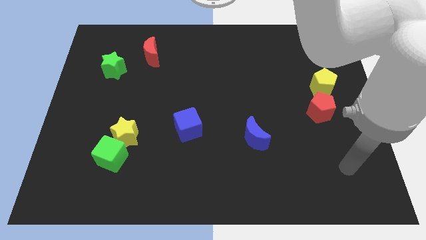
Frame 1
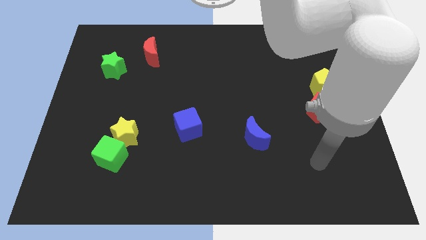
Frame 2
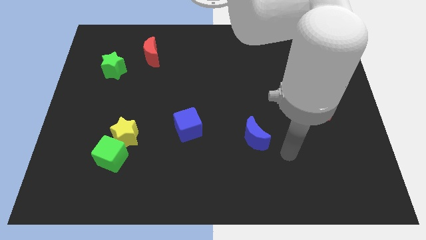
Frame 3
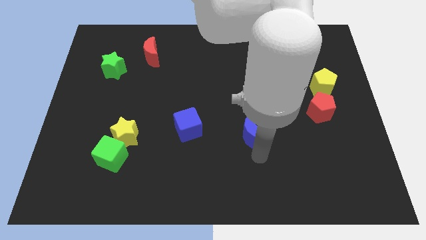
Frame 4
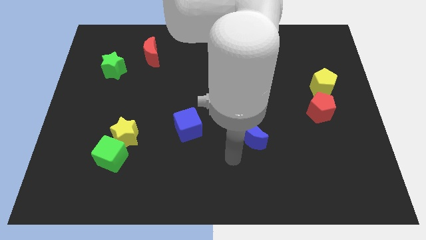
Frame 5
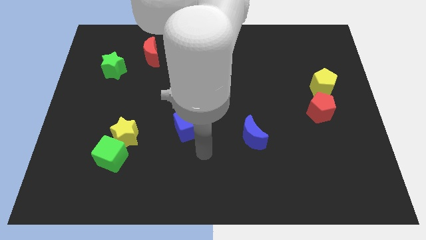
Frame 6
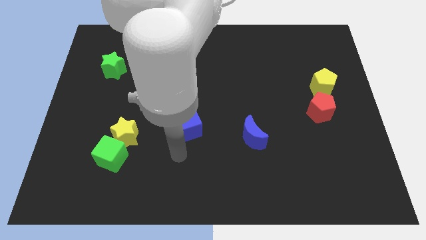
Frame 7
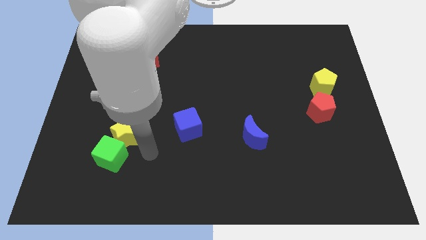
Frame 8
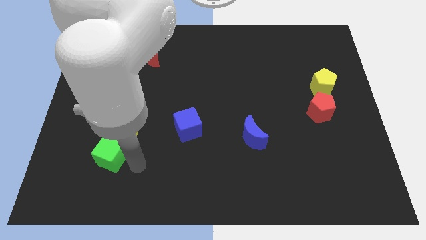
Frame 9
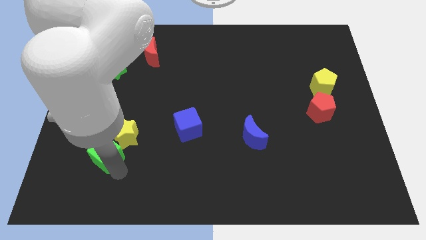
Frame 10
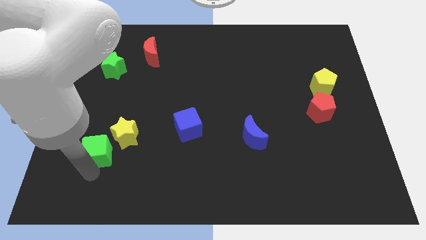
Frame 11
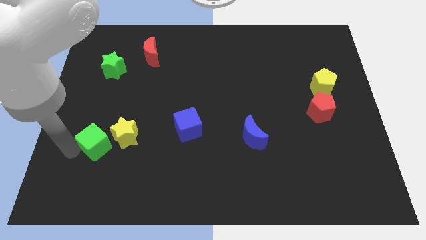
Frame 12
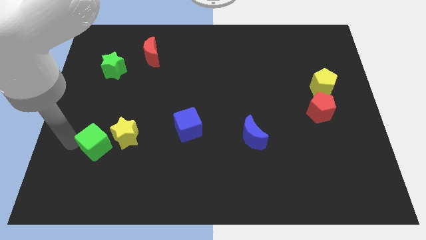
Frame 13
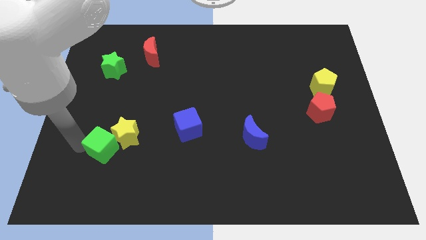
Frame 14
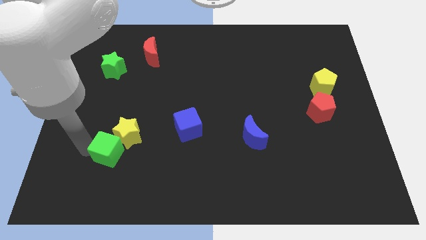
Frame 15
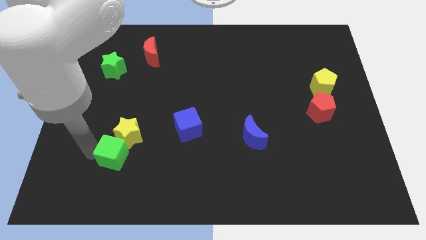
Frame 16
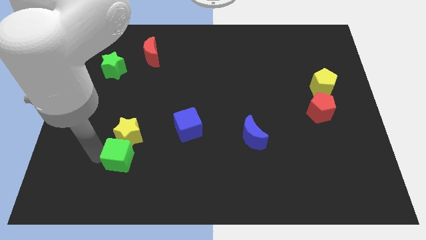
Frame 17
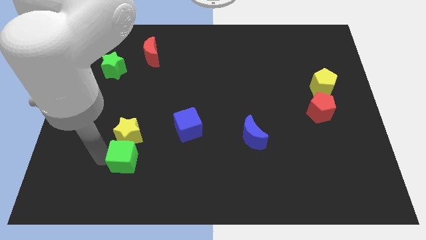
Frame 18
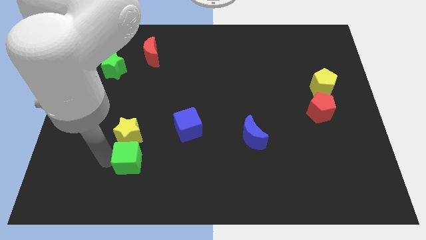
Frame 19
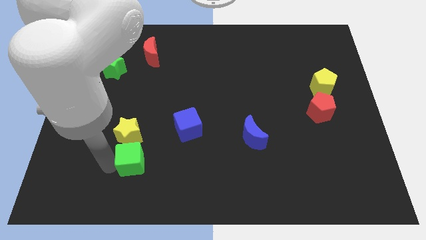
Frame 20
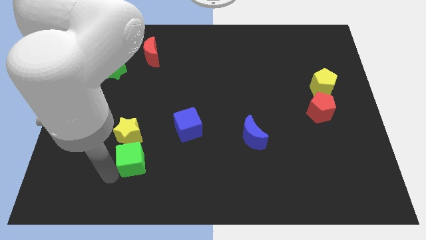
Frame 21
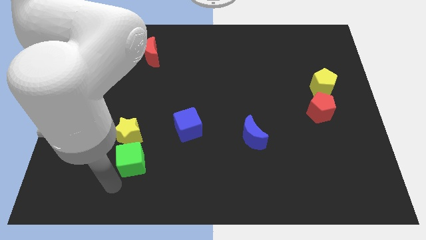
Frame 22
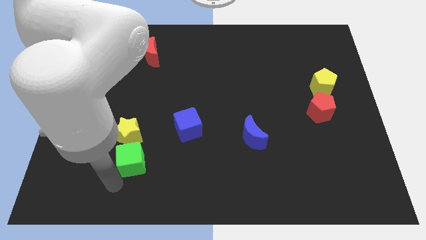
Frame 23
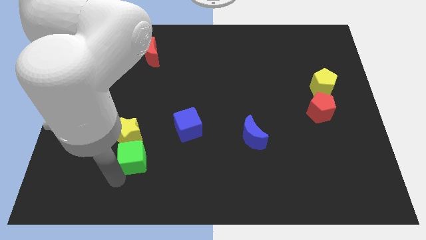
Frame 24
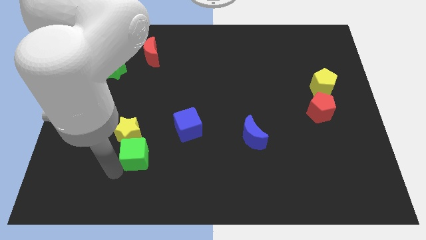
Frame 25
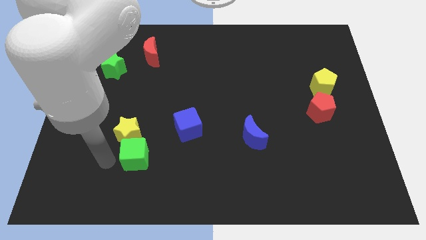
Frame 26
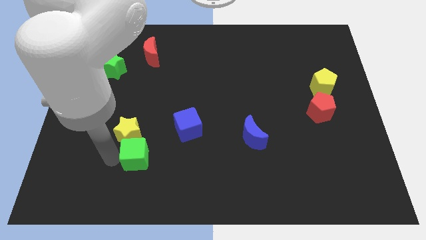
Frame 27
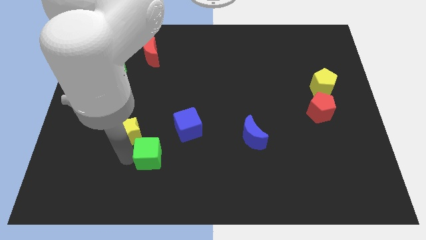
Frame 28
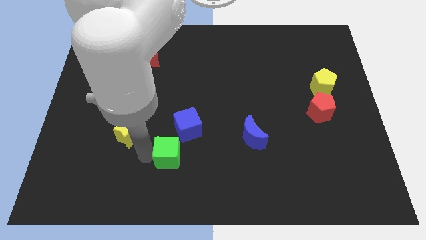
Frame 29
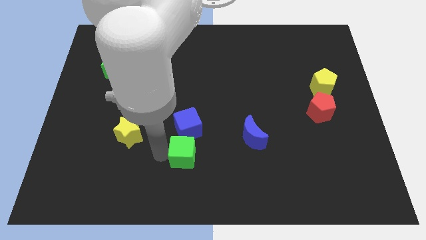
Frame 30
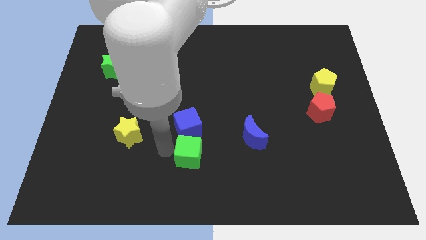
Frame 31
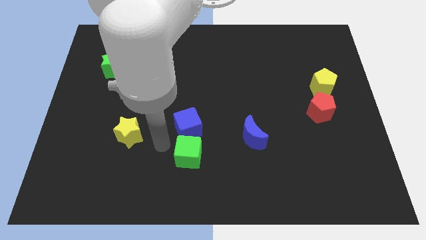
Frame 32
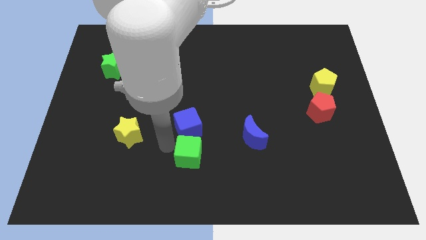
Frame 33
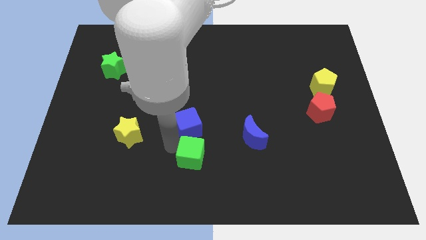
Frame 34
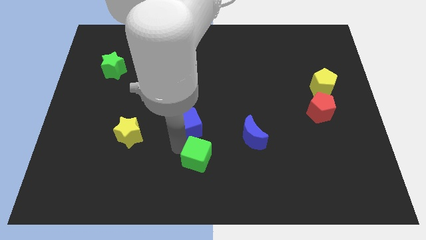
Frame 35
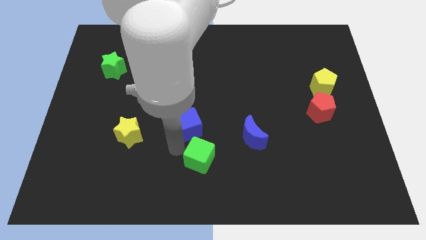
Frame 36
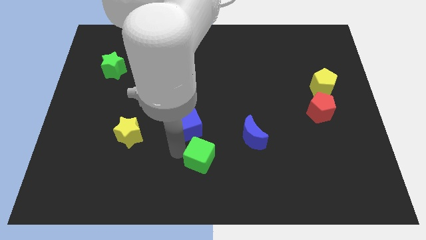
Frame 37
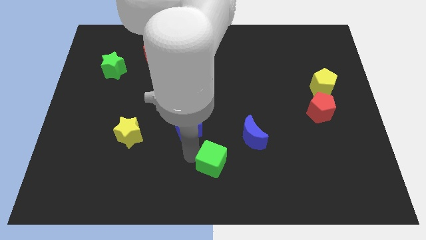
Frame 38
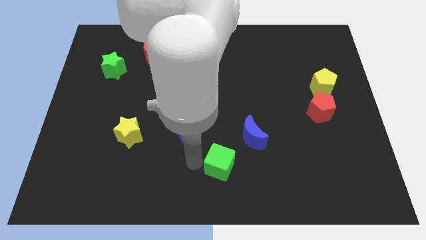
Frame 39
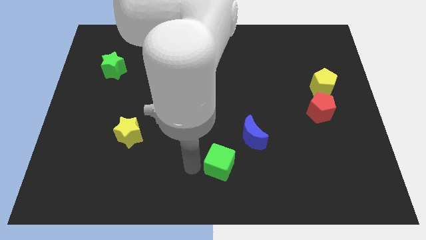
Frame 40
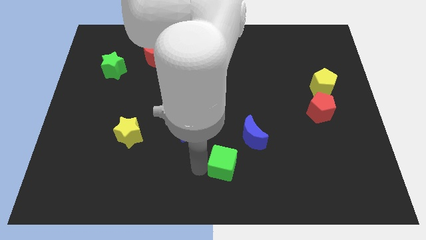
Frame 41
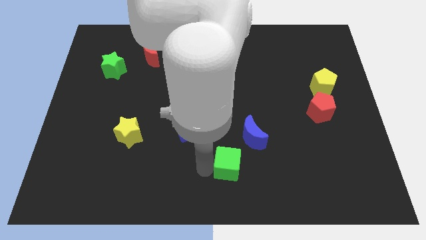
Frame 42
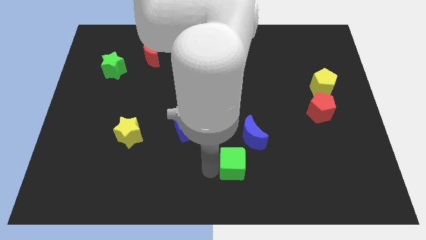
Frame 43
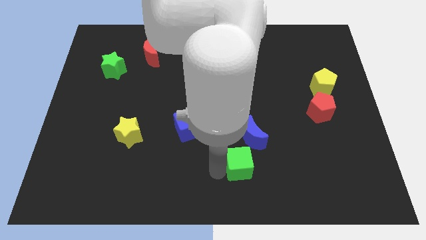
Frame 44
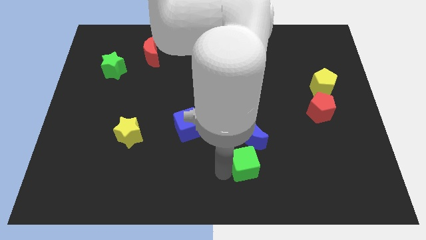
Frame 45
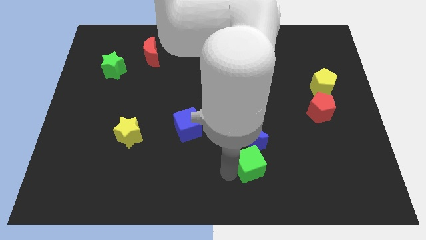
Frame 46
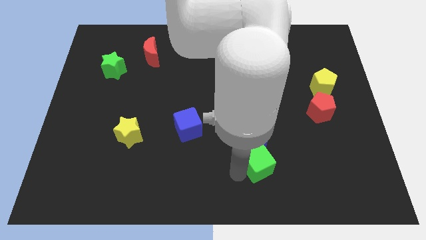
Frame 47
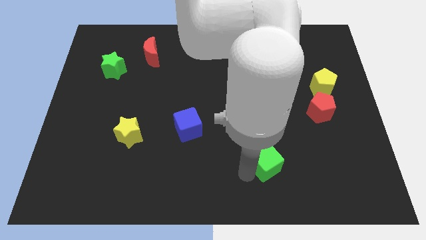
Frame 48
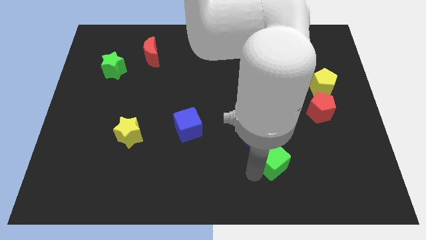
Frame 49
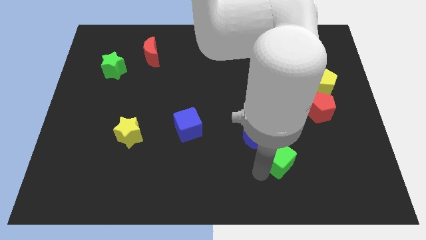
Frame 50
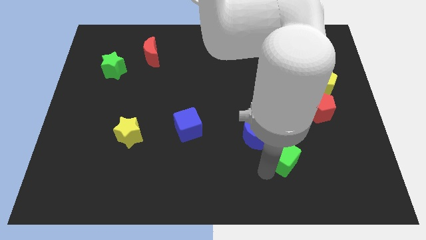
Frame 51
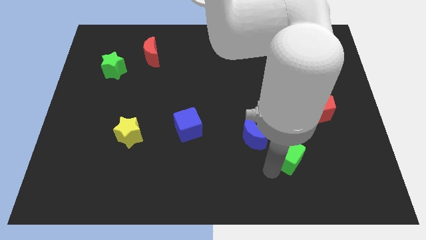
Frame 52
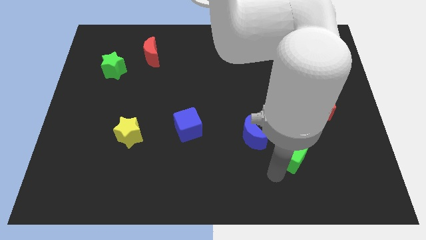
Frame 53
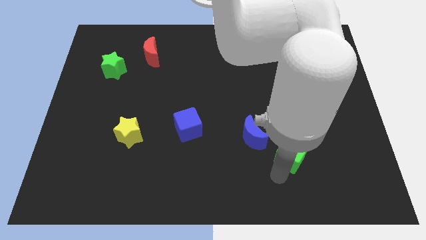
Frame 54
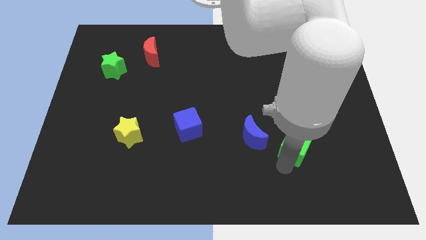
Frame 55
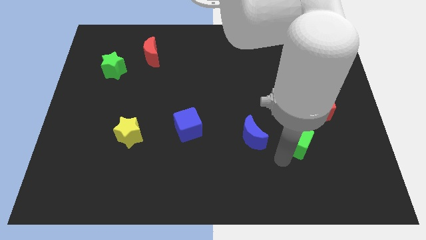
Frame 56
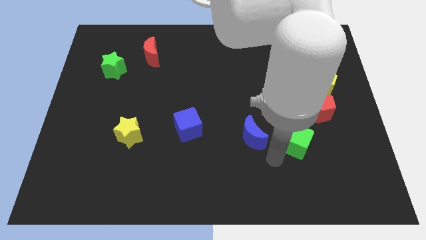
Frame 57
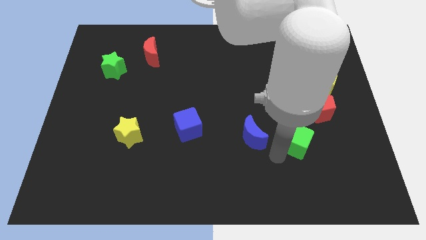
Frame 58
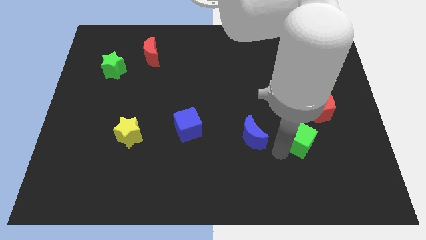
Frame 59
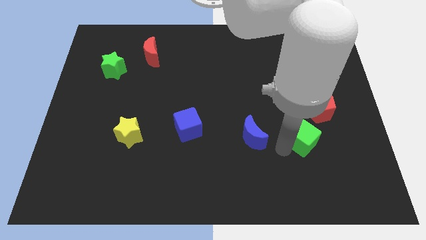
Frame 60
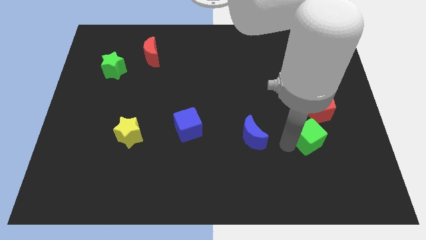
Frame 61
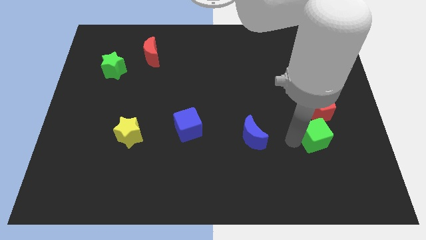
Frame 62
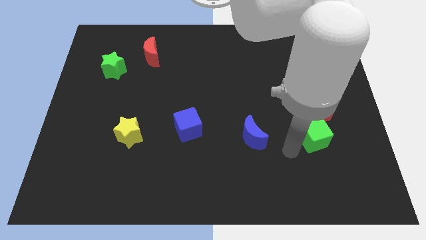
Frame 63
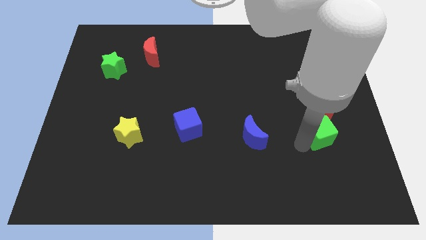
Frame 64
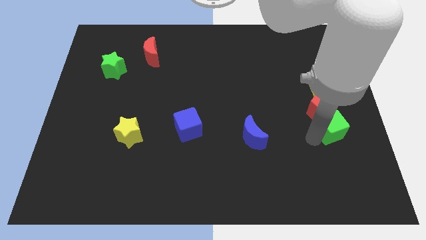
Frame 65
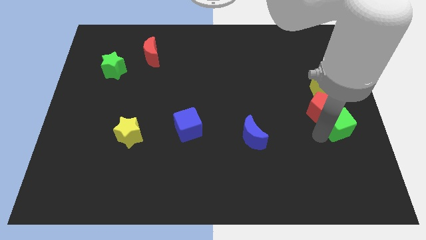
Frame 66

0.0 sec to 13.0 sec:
put the green cube to the center right
